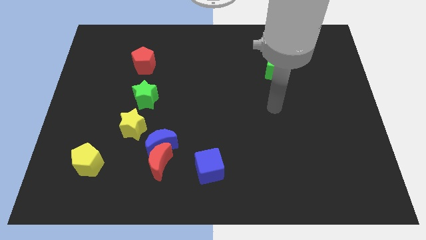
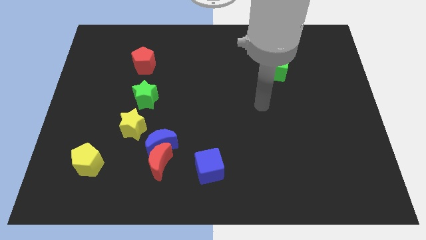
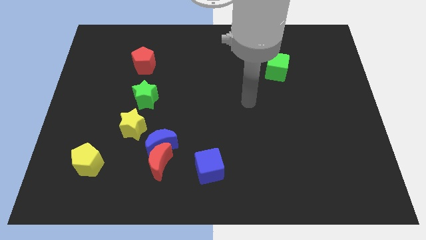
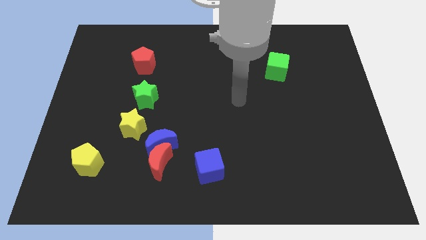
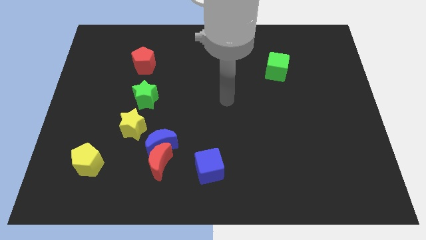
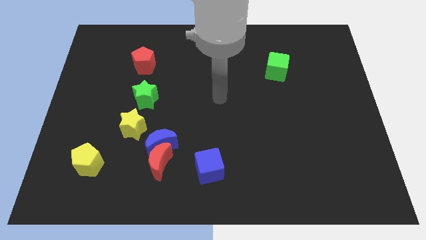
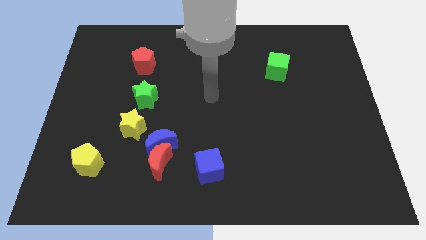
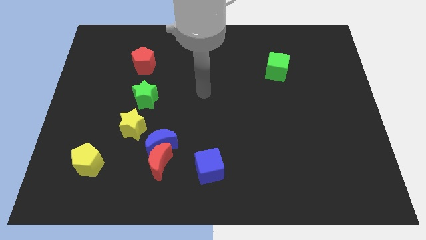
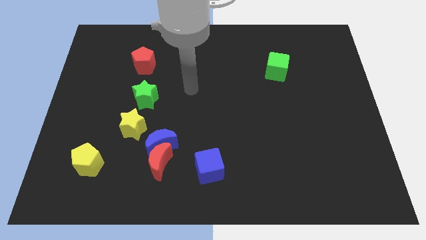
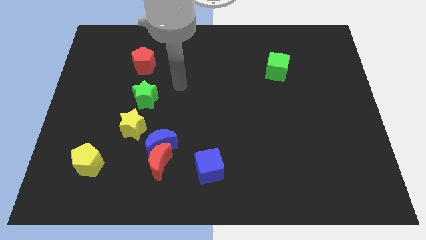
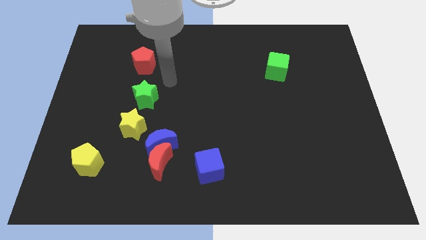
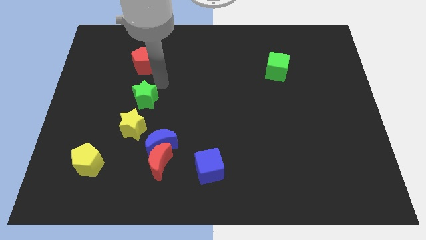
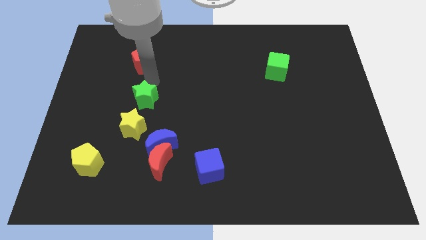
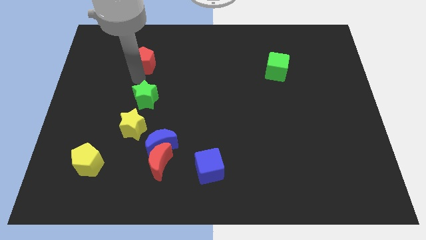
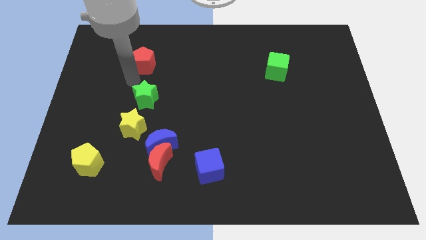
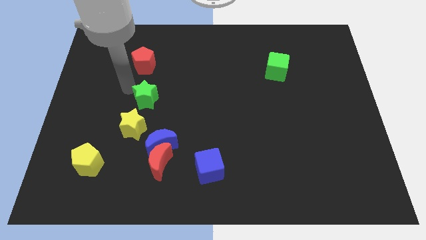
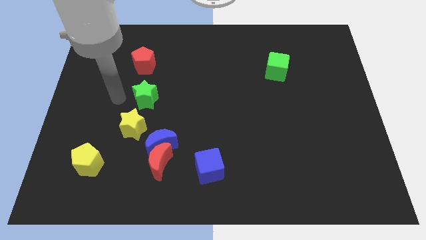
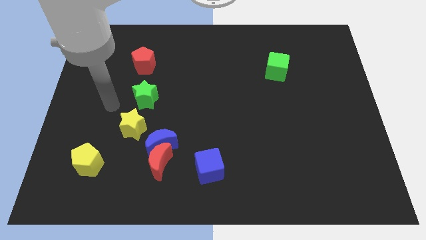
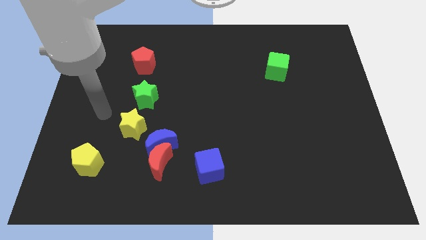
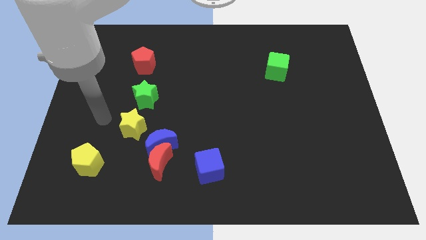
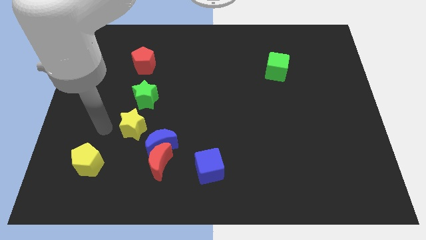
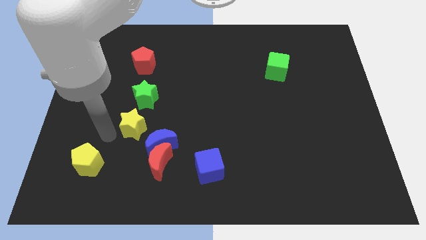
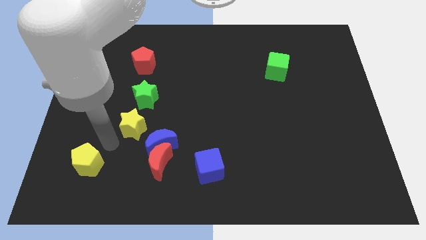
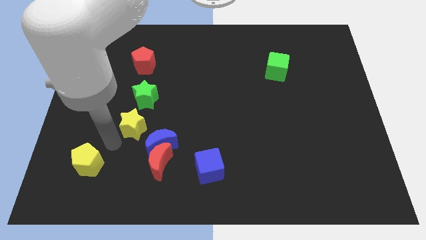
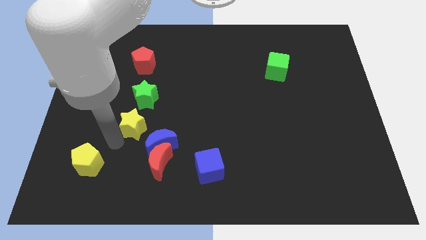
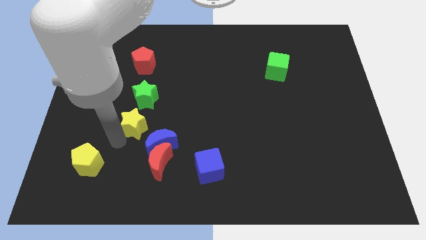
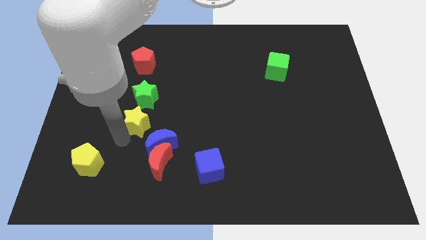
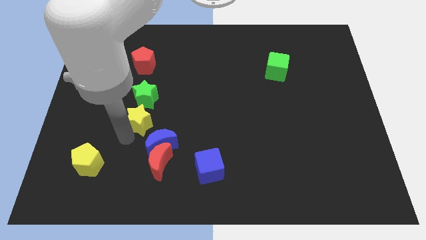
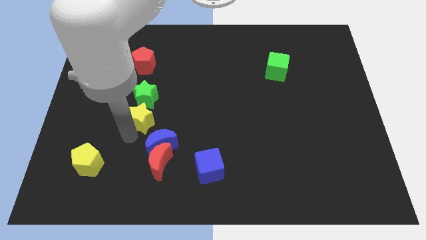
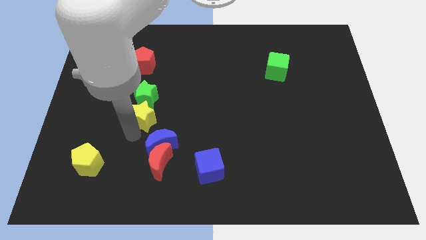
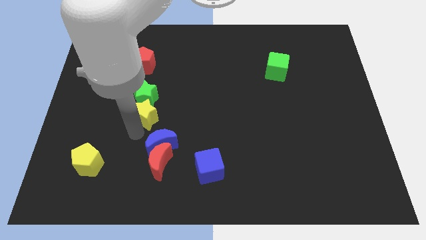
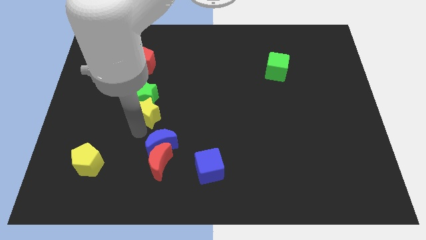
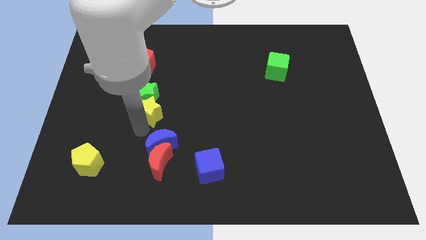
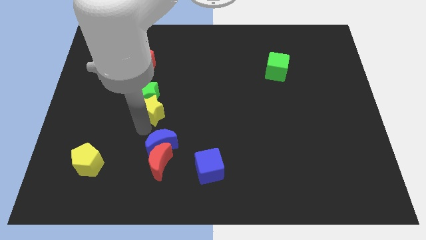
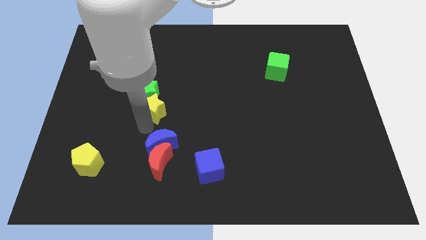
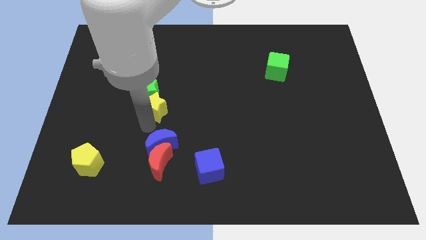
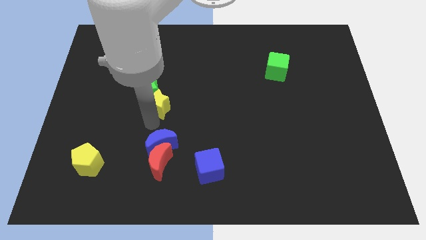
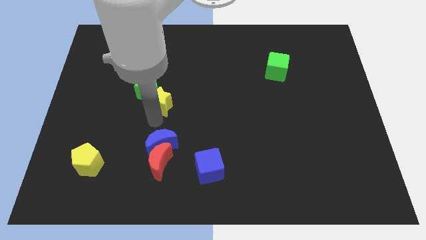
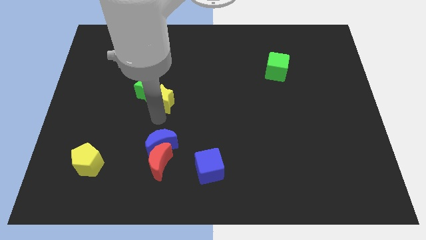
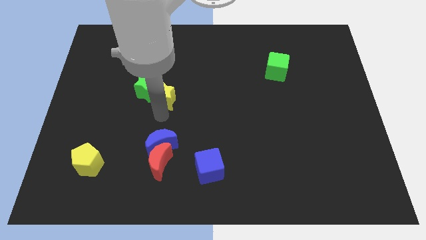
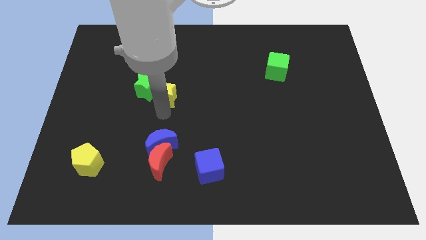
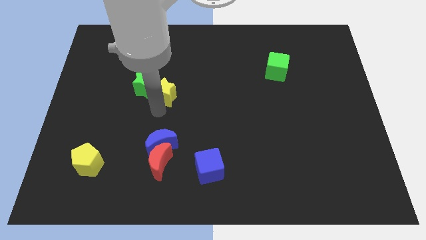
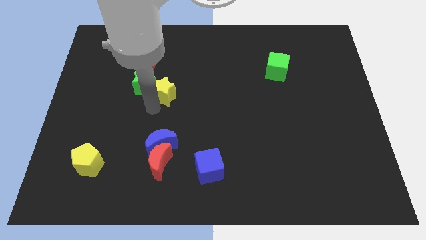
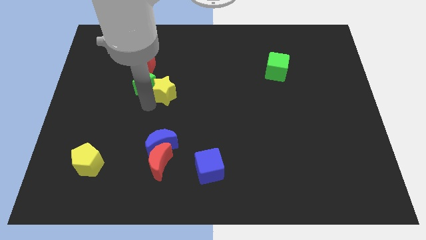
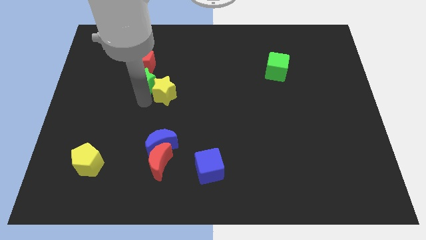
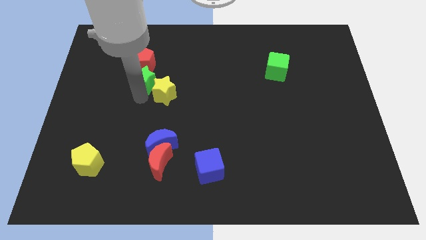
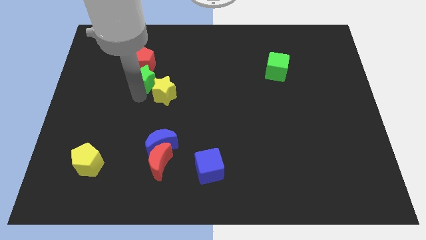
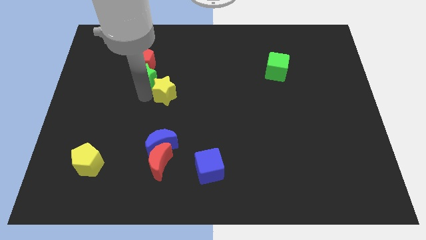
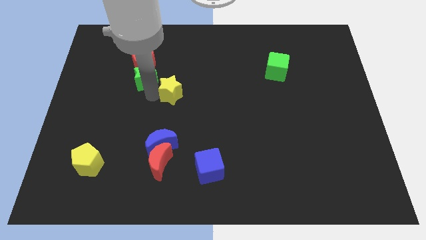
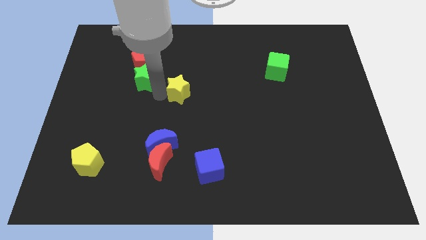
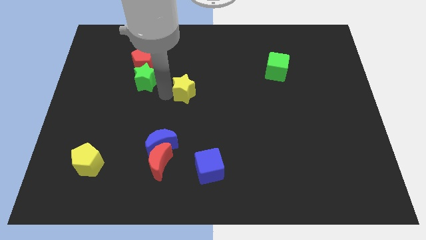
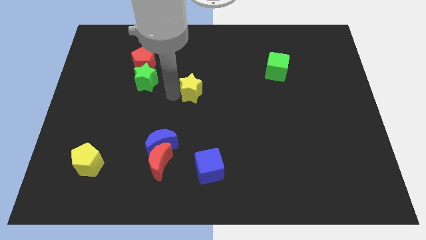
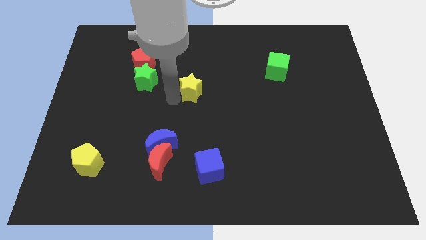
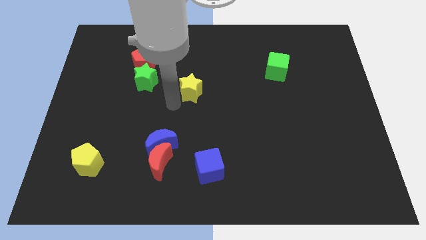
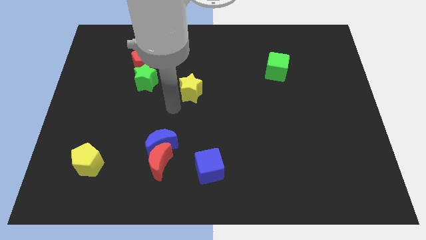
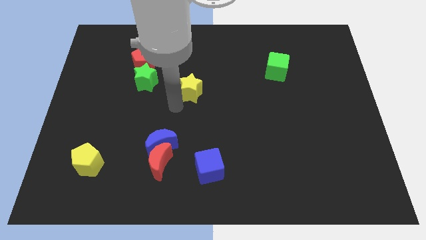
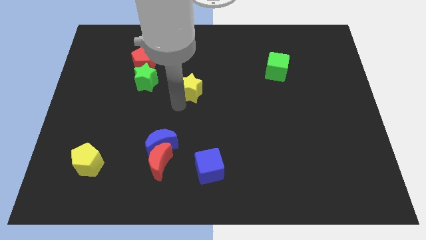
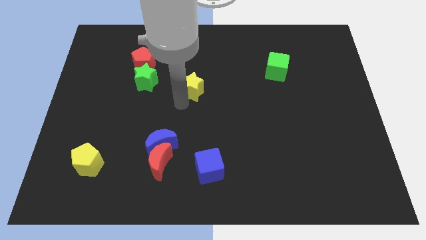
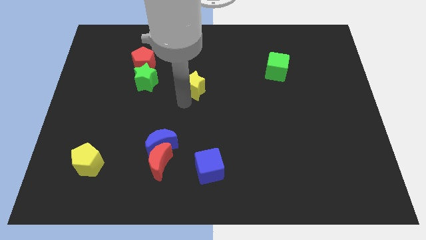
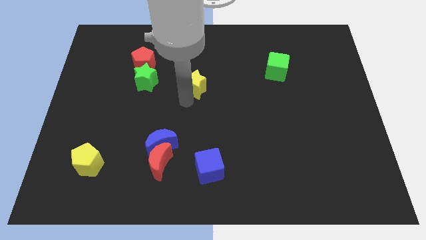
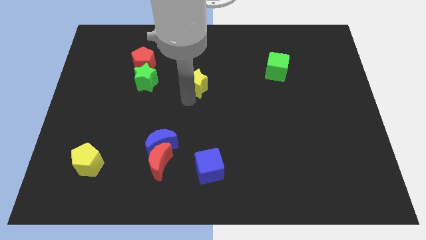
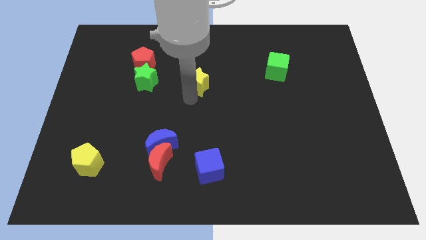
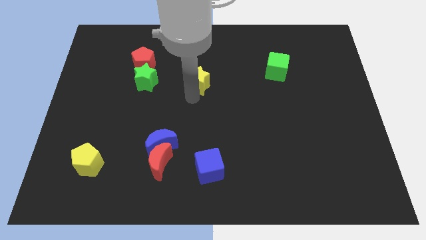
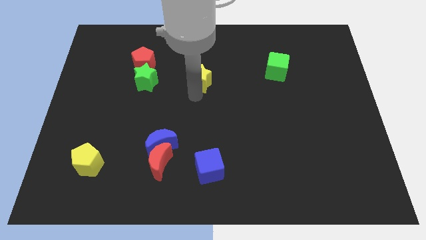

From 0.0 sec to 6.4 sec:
move the yellow star up and then to the right

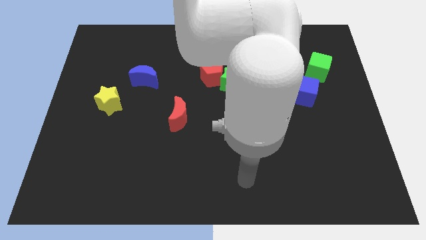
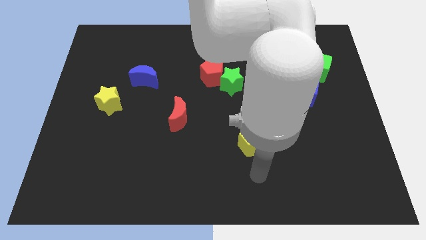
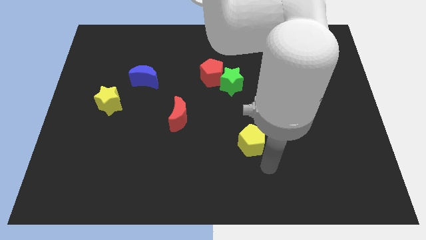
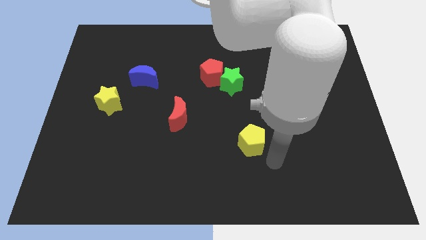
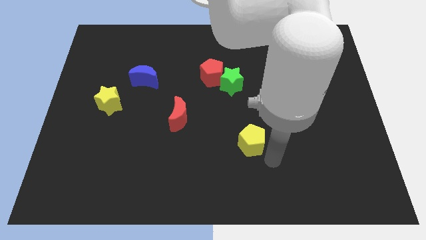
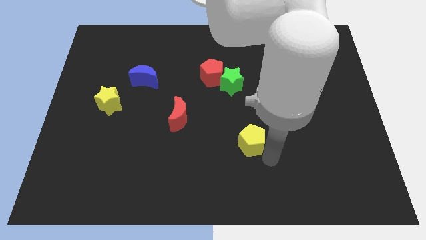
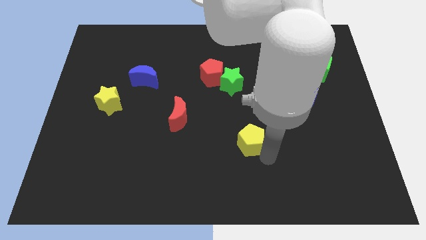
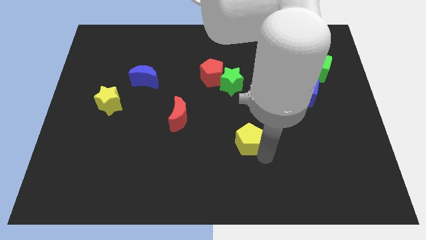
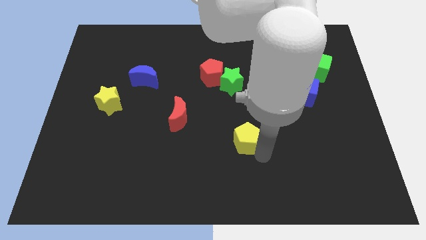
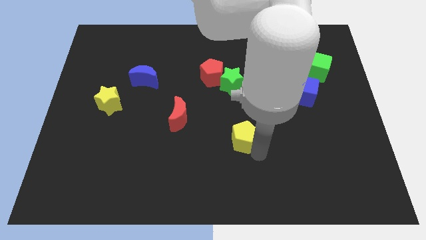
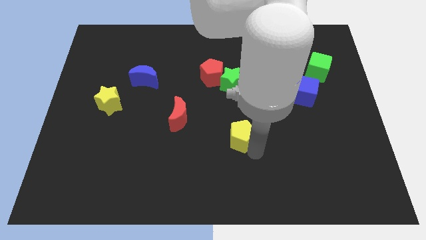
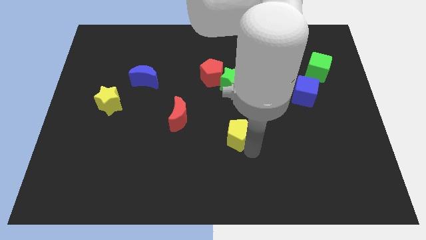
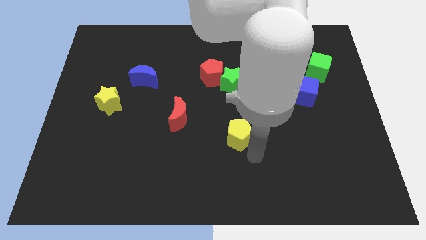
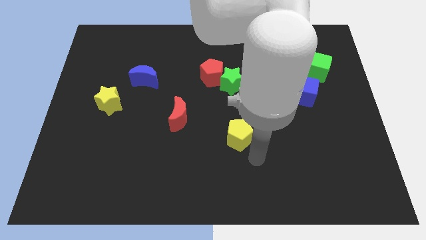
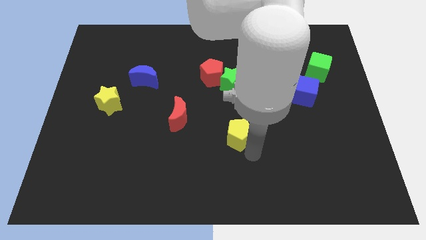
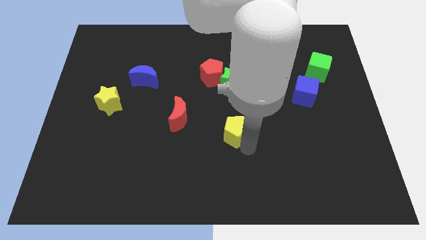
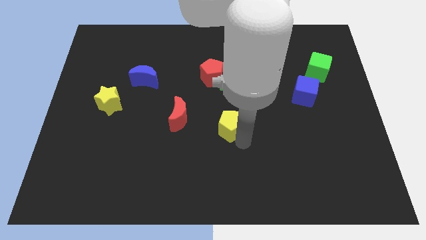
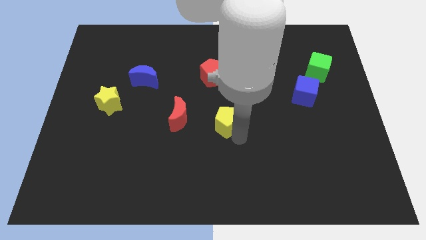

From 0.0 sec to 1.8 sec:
move the yellow pentagon up and to the left a bit
